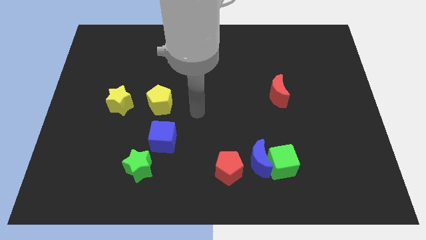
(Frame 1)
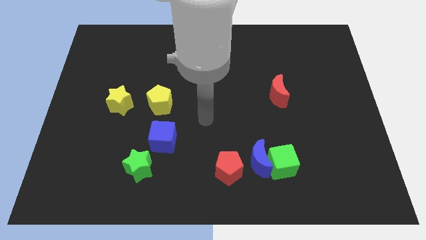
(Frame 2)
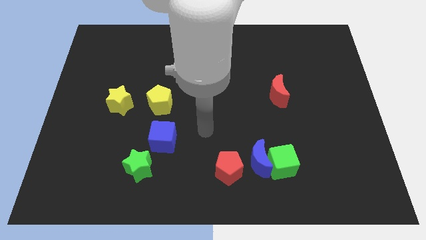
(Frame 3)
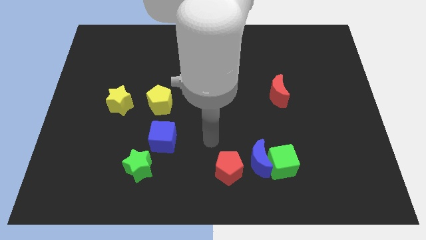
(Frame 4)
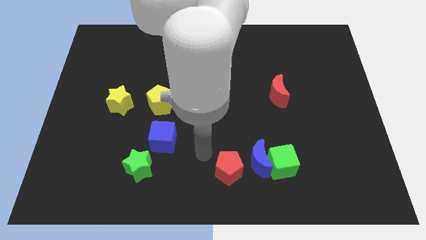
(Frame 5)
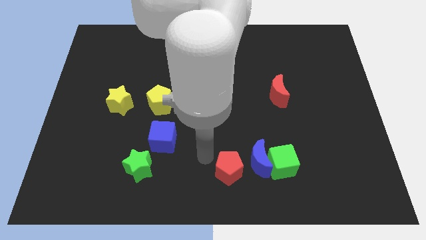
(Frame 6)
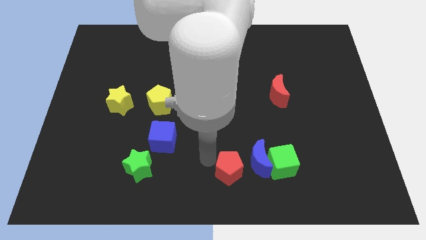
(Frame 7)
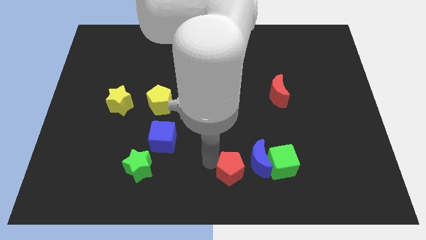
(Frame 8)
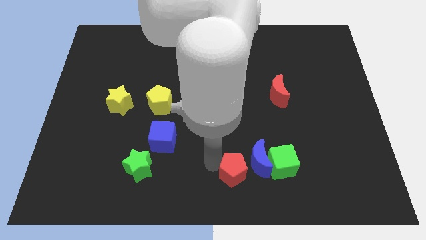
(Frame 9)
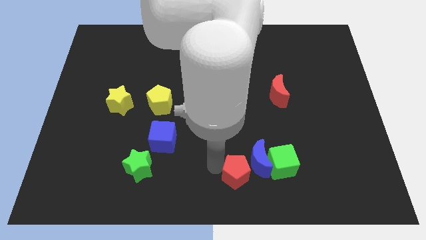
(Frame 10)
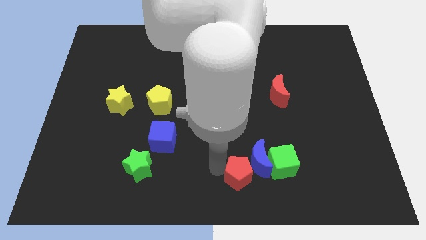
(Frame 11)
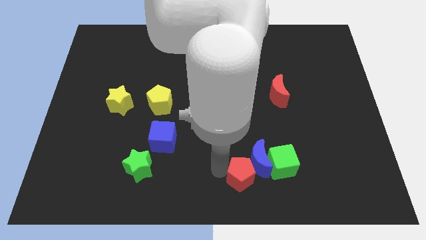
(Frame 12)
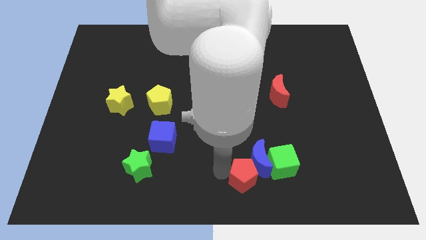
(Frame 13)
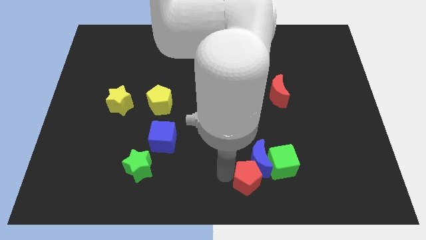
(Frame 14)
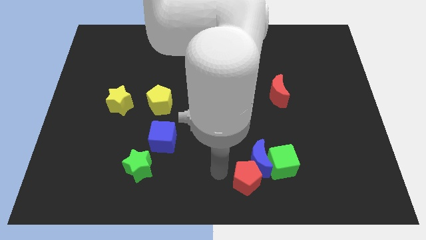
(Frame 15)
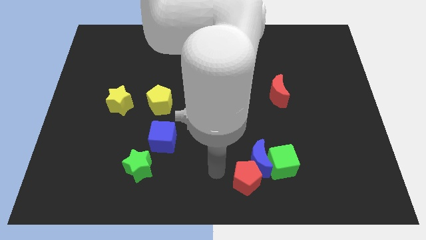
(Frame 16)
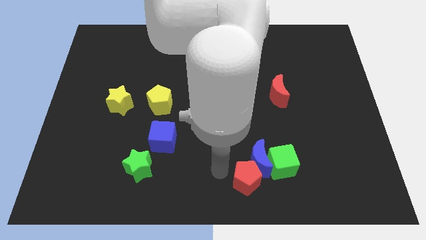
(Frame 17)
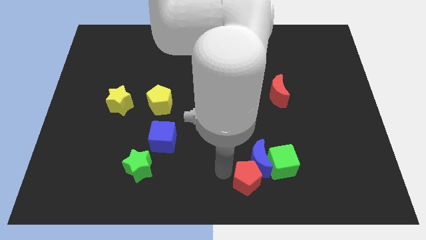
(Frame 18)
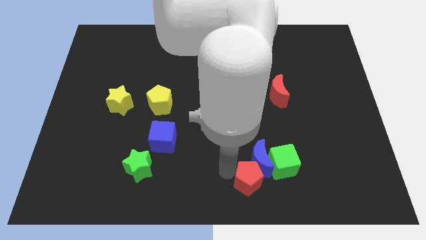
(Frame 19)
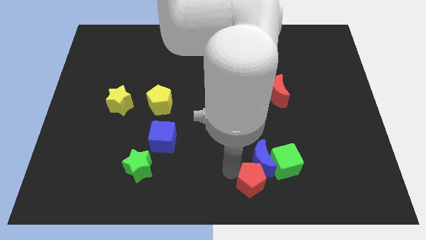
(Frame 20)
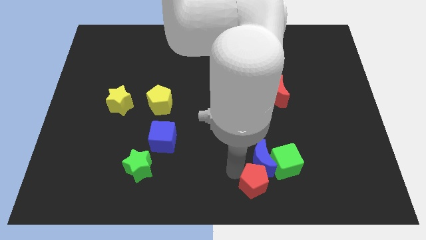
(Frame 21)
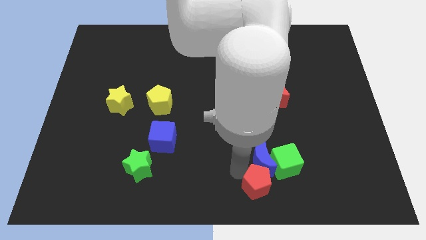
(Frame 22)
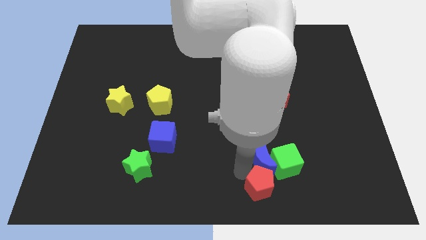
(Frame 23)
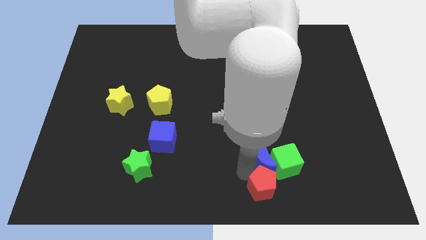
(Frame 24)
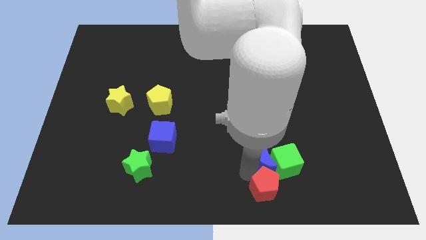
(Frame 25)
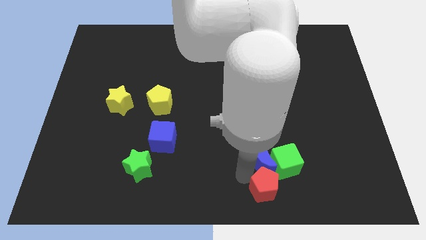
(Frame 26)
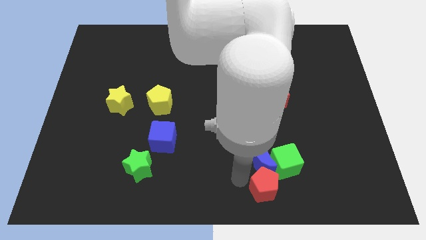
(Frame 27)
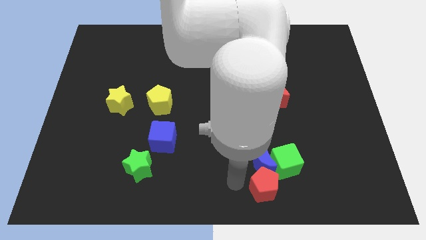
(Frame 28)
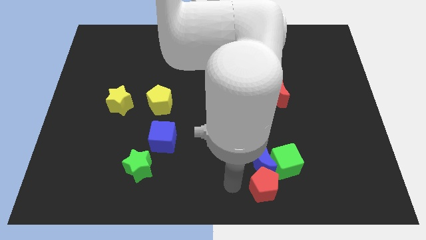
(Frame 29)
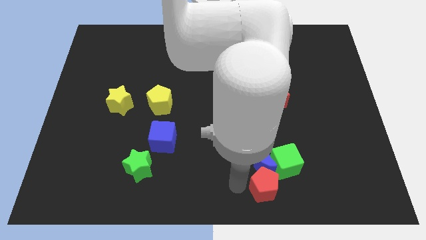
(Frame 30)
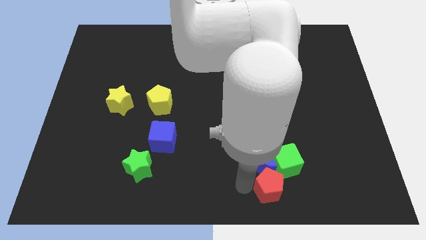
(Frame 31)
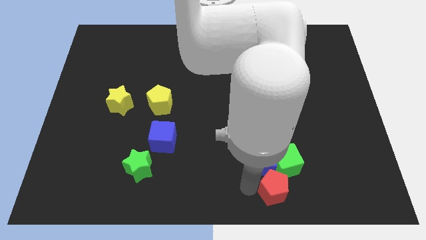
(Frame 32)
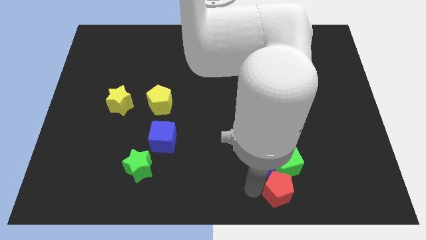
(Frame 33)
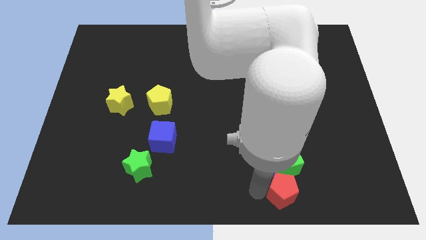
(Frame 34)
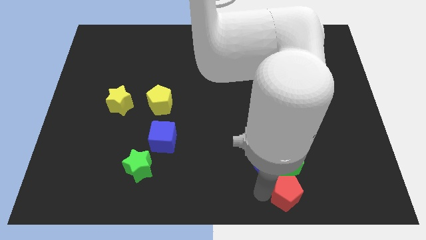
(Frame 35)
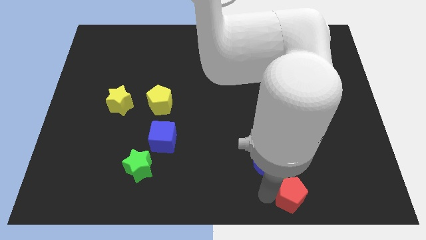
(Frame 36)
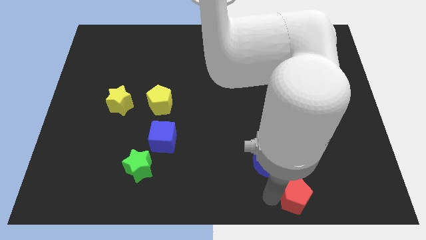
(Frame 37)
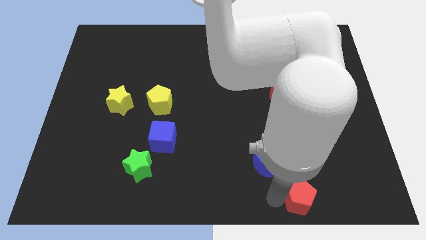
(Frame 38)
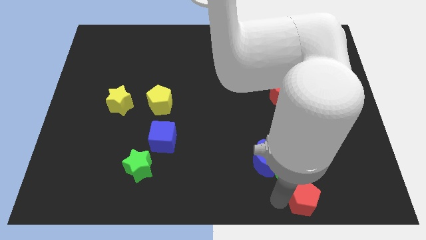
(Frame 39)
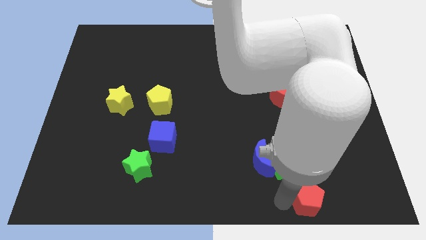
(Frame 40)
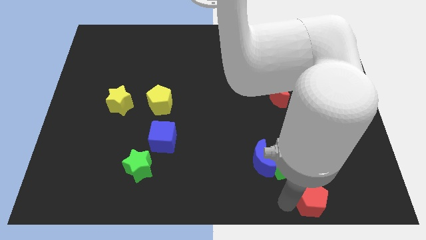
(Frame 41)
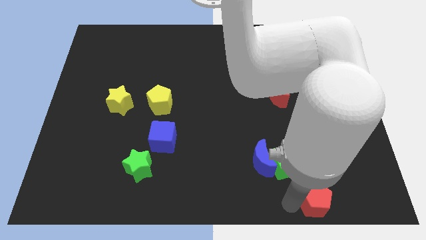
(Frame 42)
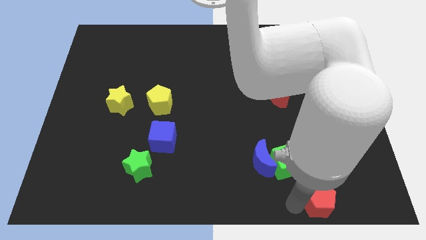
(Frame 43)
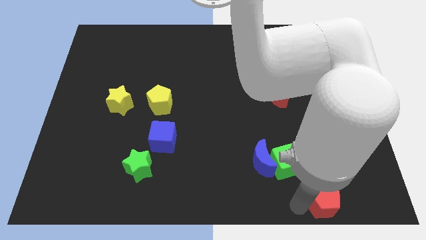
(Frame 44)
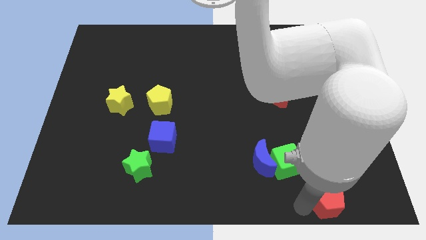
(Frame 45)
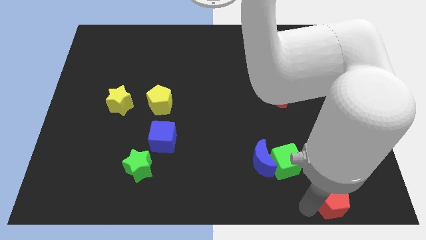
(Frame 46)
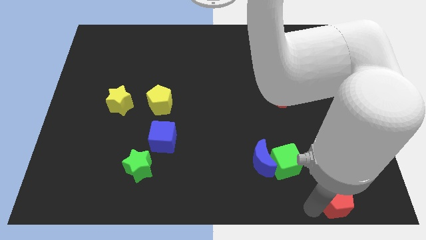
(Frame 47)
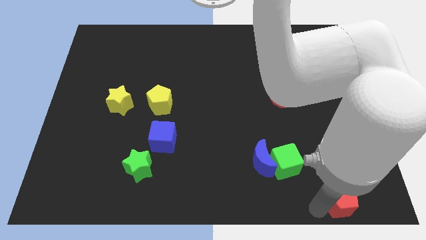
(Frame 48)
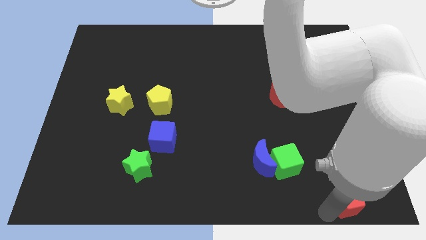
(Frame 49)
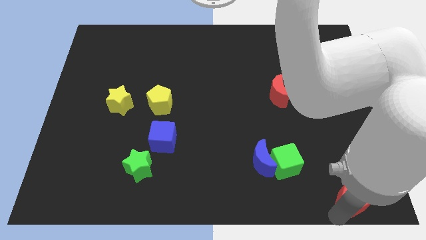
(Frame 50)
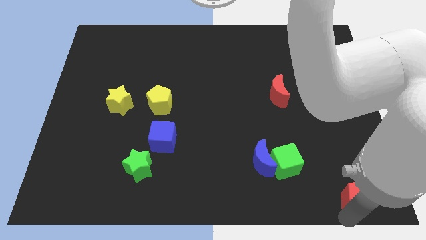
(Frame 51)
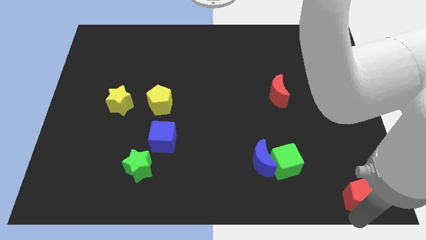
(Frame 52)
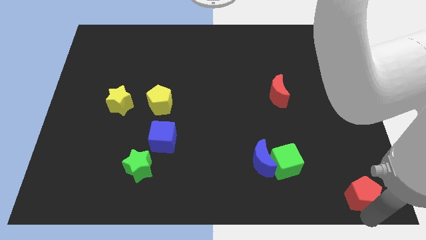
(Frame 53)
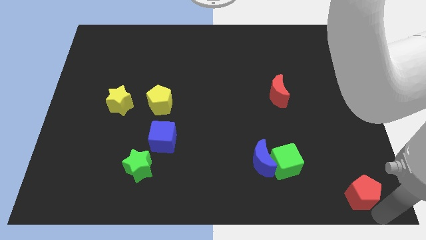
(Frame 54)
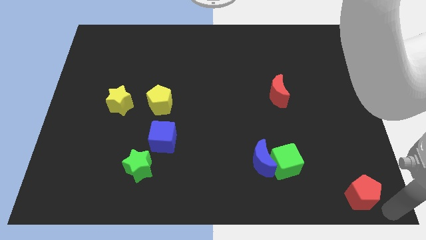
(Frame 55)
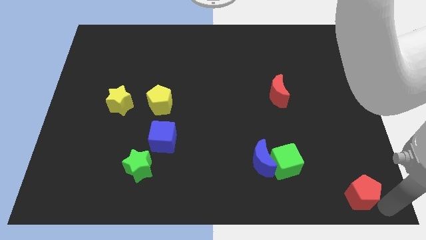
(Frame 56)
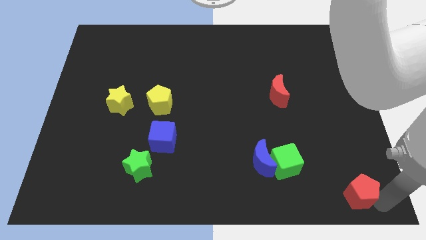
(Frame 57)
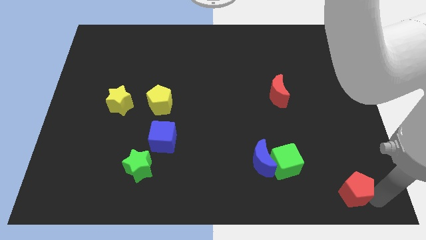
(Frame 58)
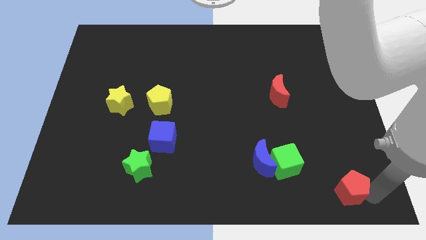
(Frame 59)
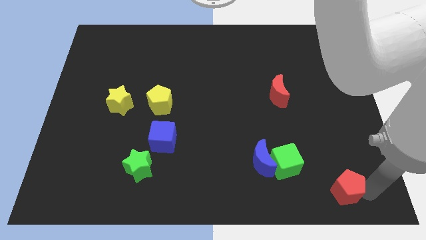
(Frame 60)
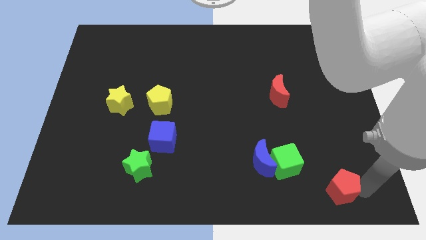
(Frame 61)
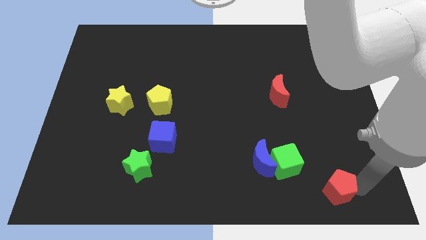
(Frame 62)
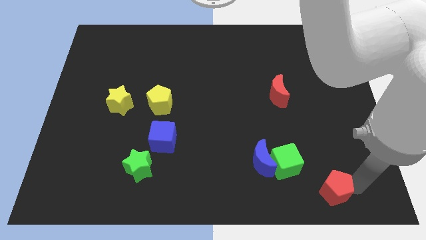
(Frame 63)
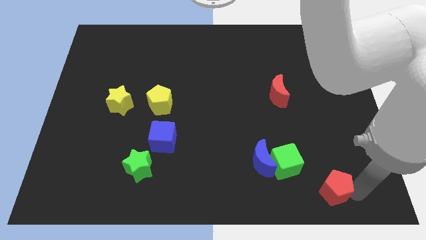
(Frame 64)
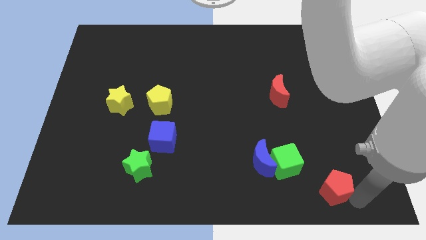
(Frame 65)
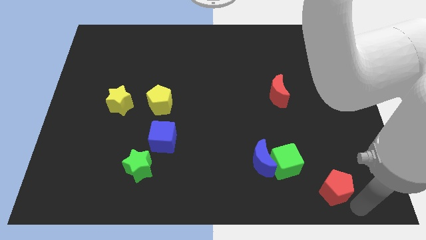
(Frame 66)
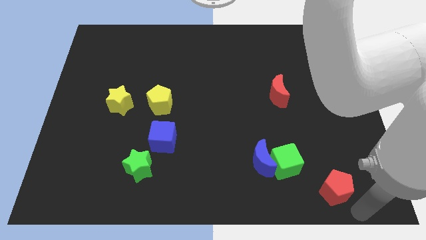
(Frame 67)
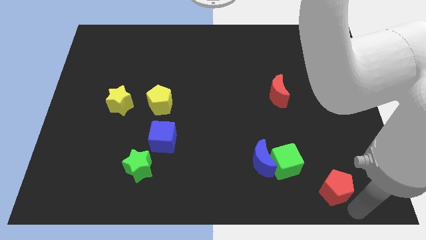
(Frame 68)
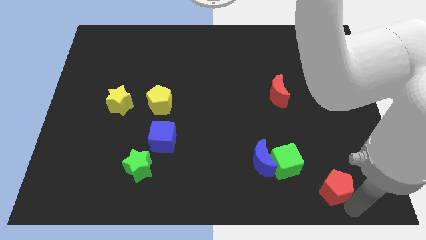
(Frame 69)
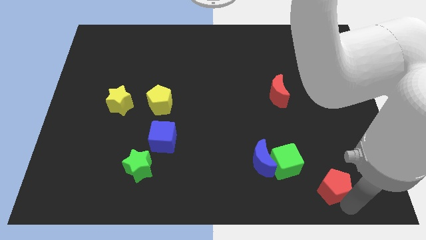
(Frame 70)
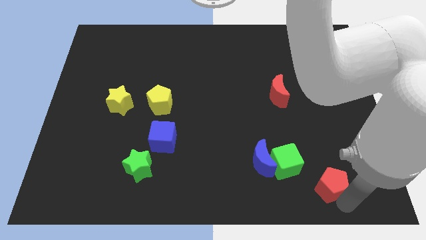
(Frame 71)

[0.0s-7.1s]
slide the red pentagon just right of the green cube
